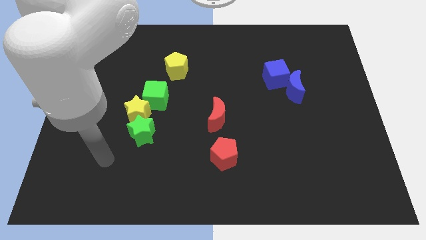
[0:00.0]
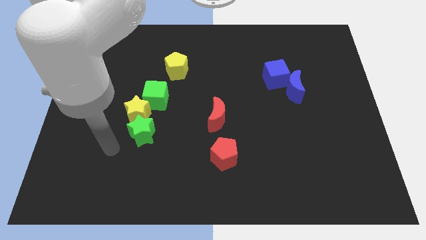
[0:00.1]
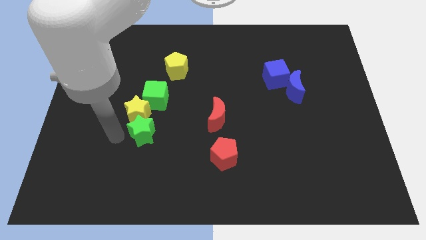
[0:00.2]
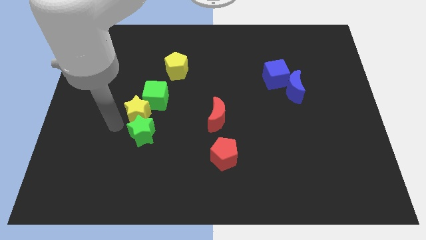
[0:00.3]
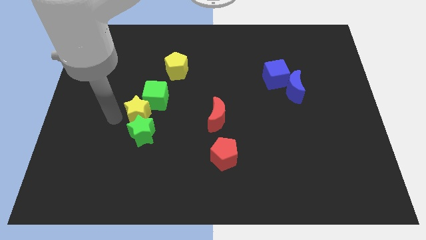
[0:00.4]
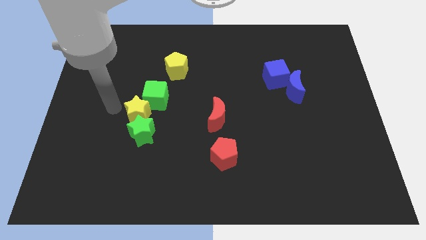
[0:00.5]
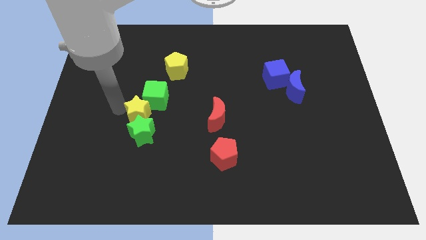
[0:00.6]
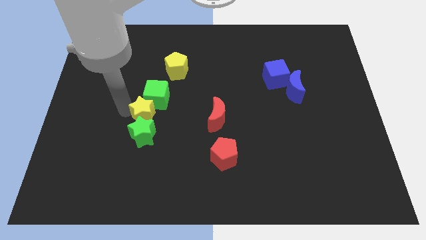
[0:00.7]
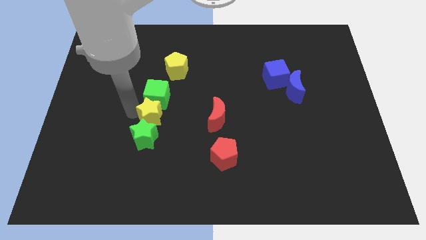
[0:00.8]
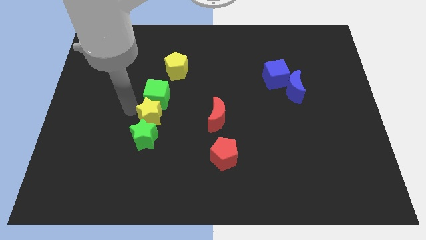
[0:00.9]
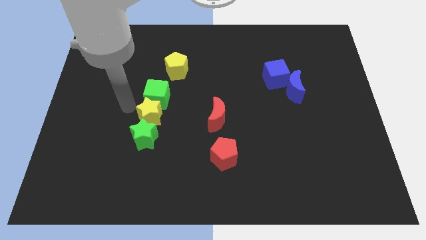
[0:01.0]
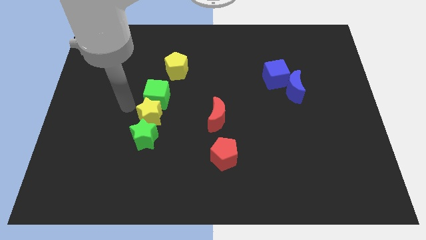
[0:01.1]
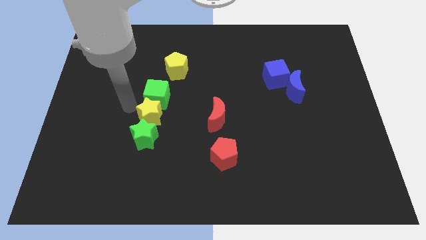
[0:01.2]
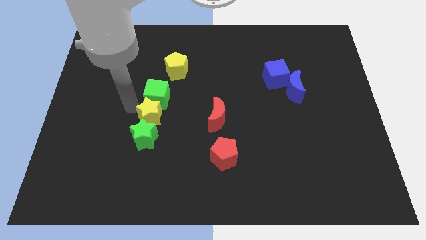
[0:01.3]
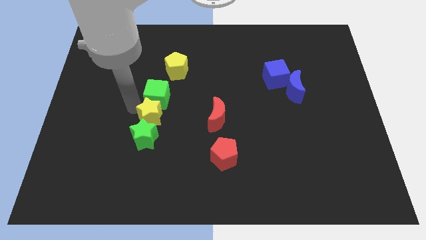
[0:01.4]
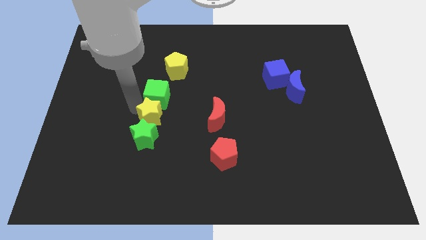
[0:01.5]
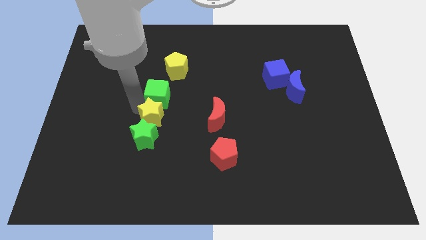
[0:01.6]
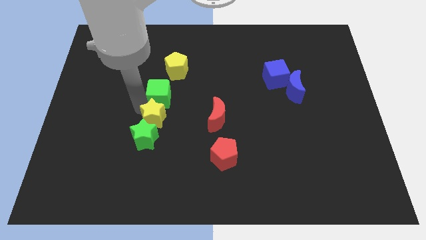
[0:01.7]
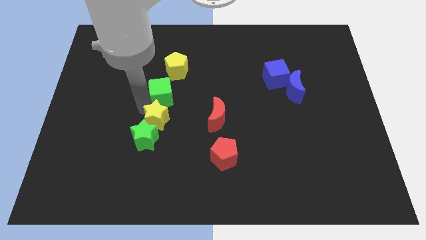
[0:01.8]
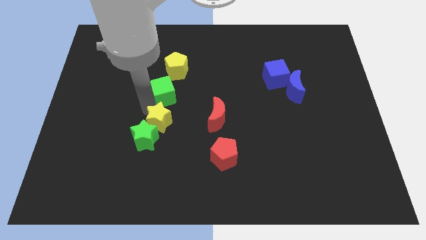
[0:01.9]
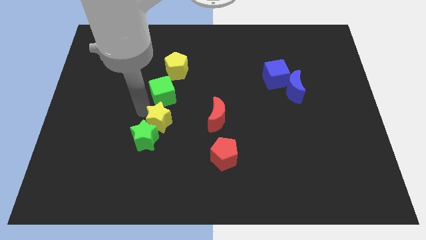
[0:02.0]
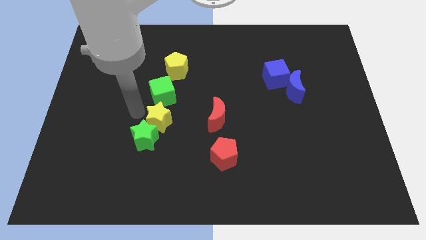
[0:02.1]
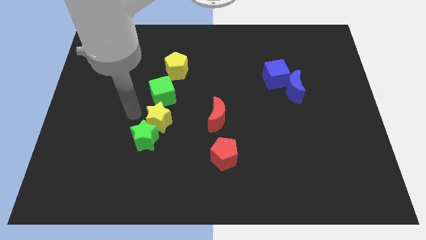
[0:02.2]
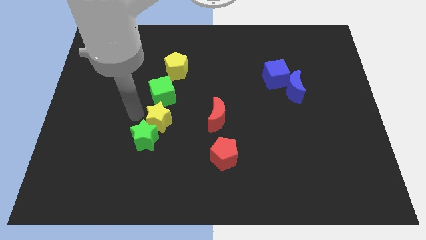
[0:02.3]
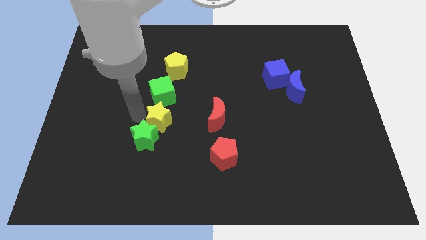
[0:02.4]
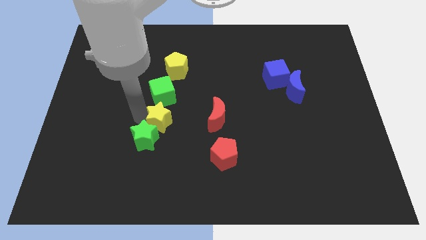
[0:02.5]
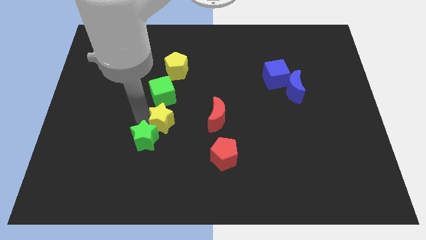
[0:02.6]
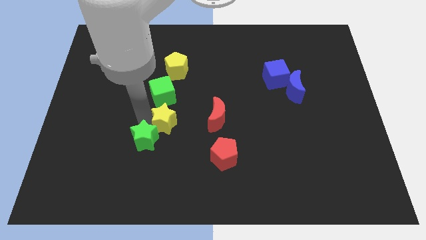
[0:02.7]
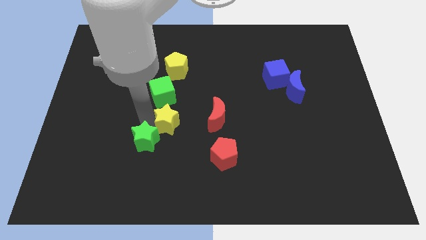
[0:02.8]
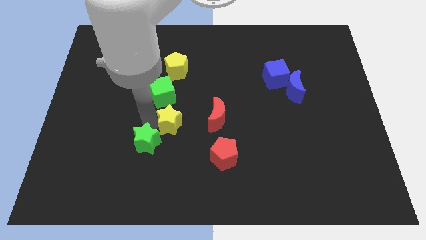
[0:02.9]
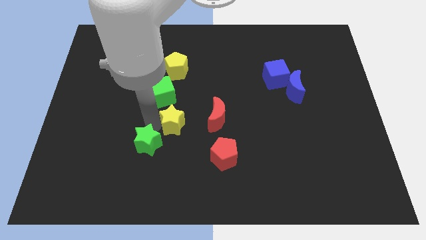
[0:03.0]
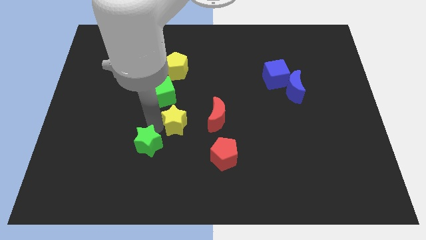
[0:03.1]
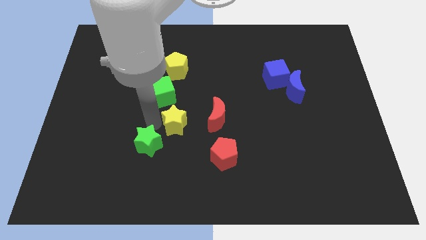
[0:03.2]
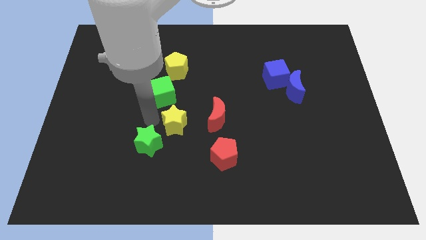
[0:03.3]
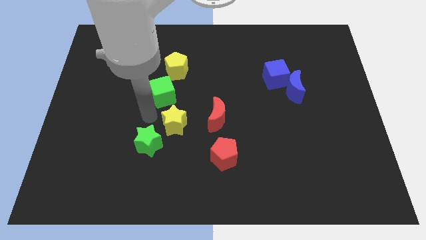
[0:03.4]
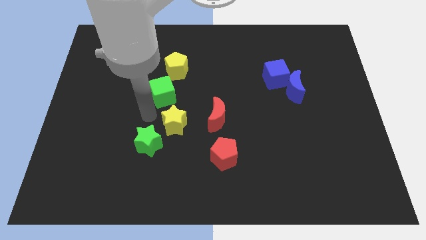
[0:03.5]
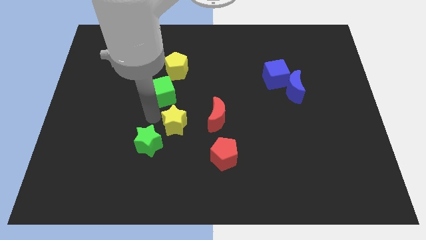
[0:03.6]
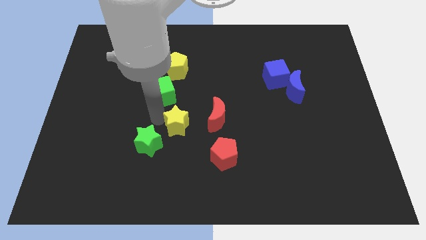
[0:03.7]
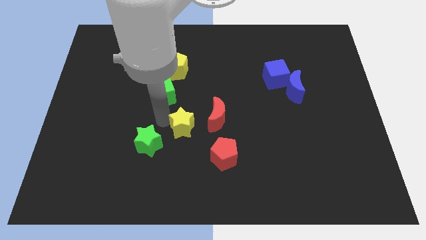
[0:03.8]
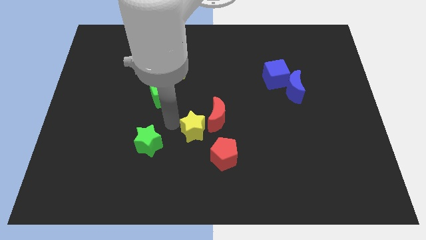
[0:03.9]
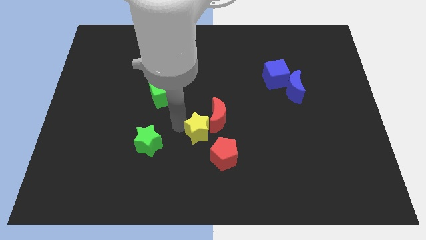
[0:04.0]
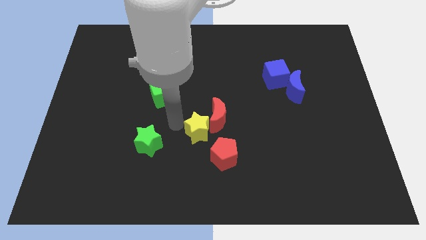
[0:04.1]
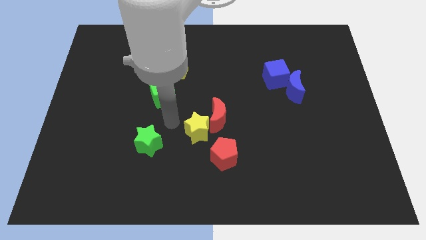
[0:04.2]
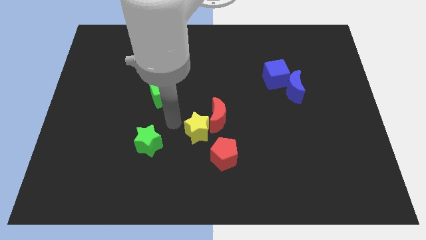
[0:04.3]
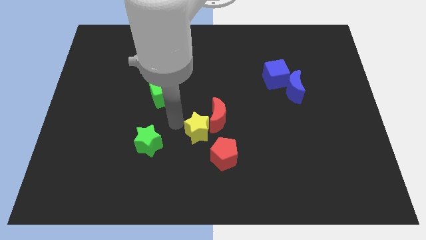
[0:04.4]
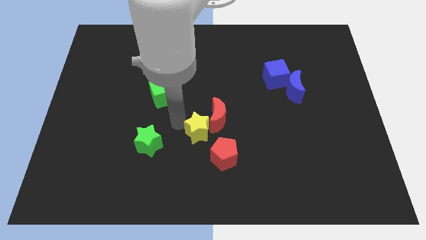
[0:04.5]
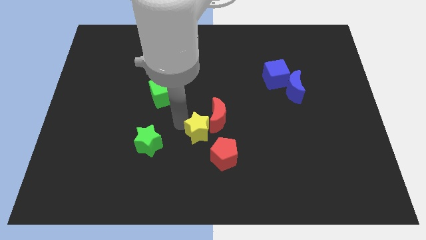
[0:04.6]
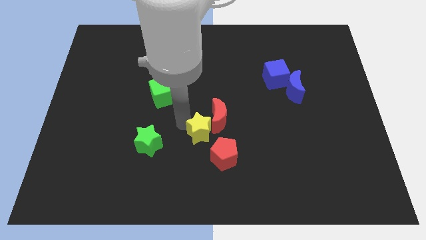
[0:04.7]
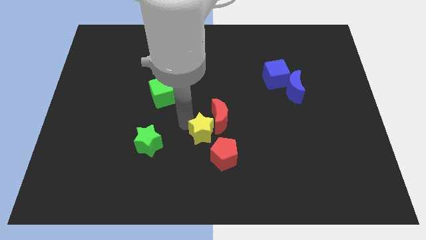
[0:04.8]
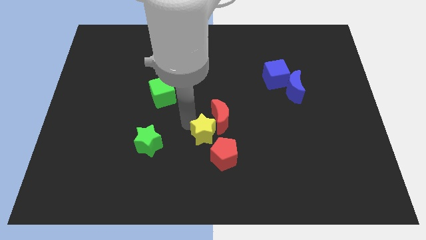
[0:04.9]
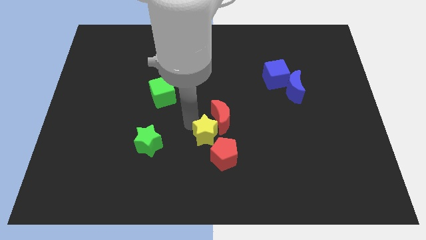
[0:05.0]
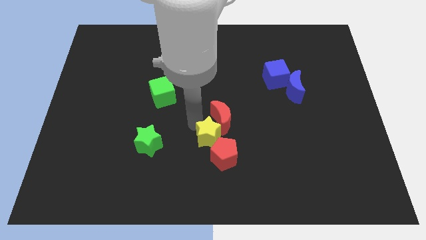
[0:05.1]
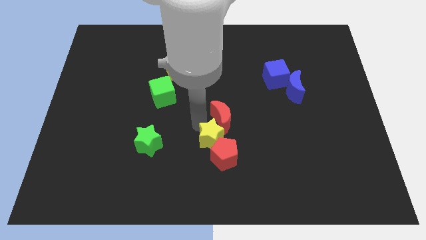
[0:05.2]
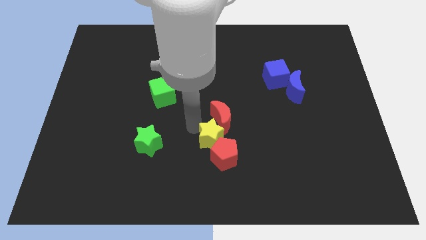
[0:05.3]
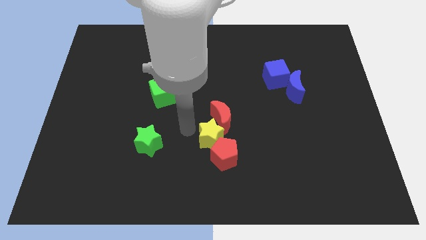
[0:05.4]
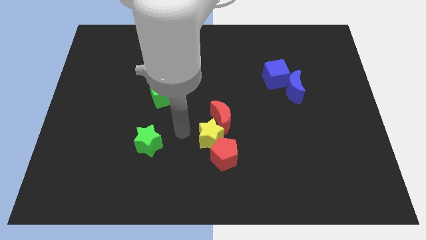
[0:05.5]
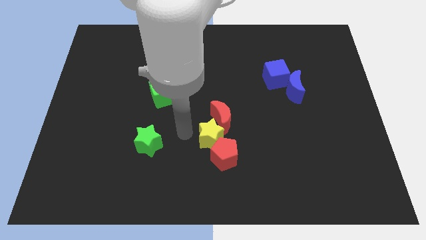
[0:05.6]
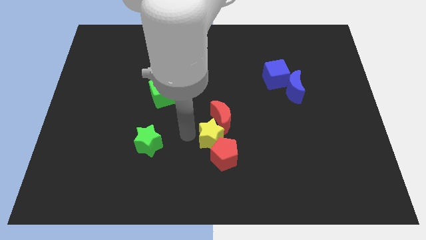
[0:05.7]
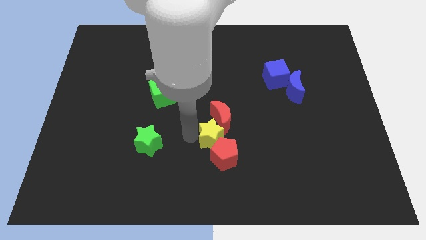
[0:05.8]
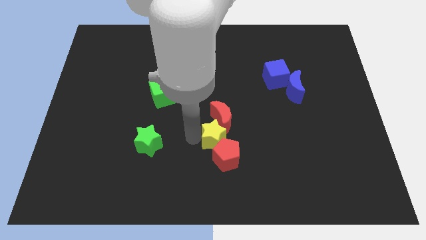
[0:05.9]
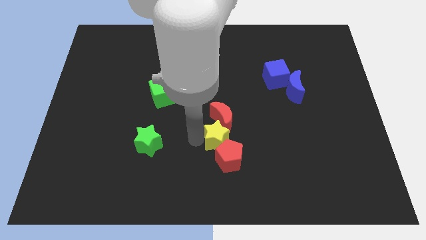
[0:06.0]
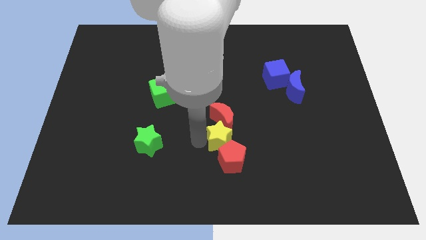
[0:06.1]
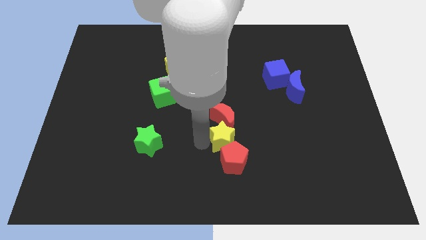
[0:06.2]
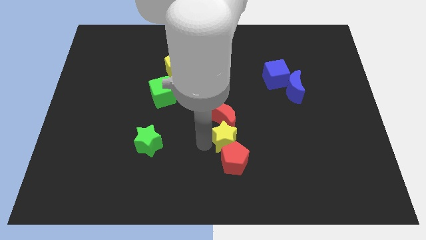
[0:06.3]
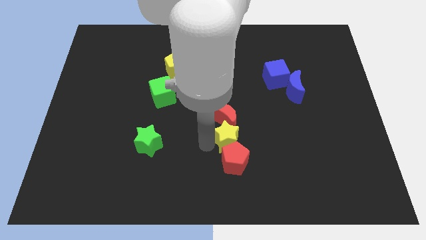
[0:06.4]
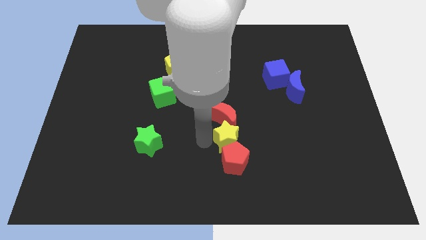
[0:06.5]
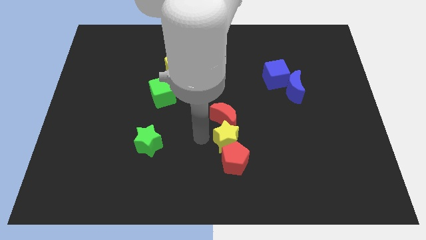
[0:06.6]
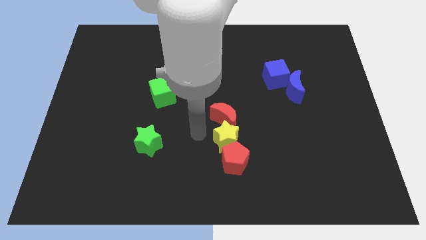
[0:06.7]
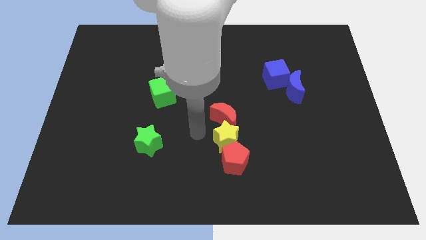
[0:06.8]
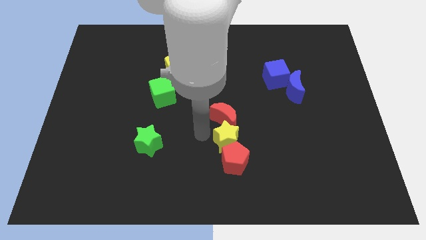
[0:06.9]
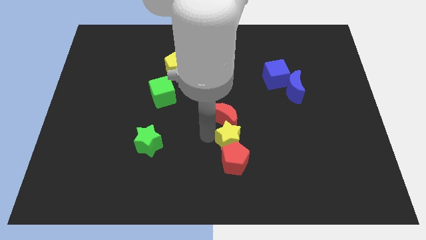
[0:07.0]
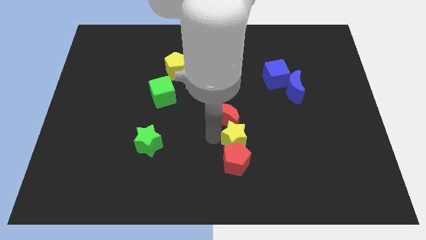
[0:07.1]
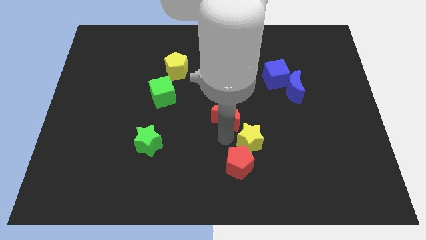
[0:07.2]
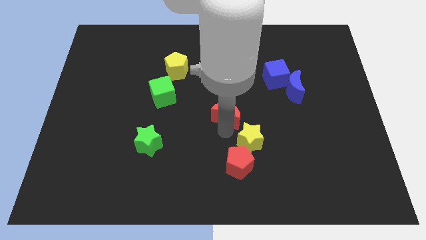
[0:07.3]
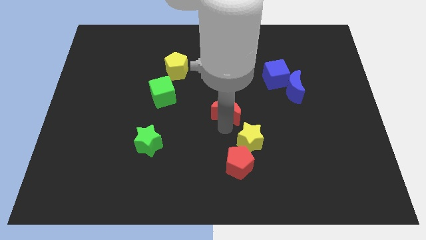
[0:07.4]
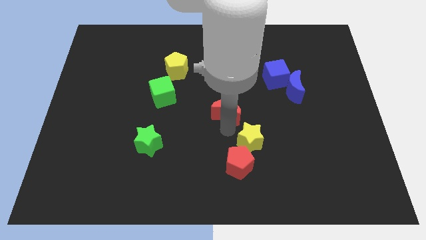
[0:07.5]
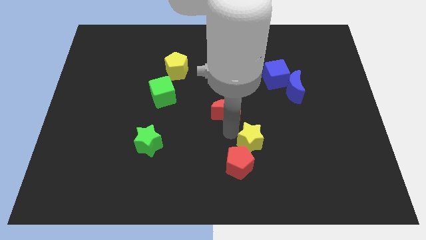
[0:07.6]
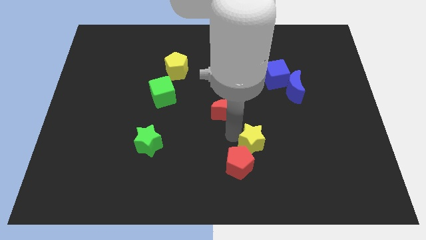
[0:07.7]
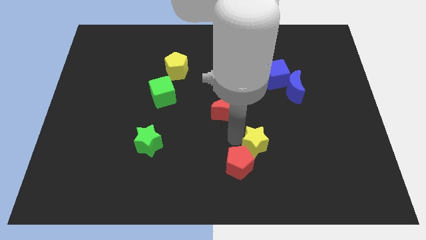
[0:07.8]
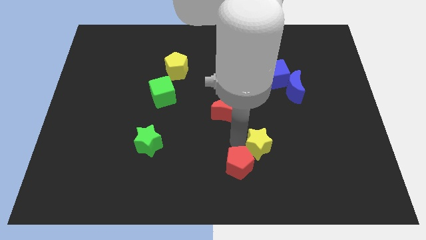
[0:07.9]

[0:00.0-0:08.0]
push the yellow star to the right side of the red pentagon
